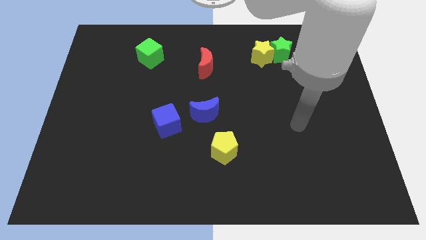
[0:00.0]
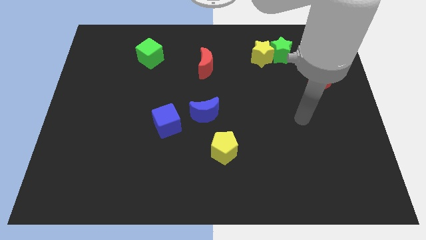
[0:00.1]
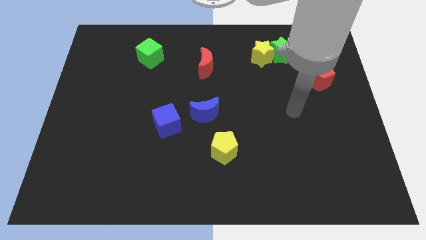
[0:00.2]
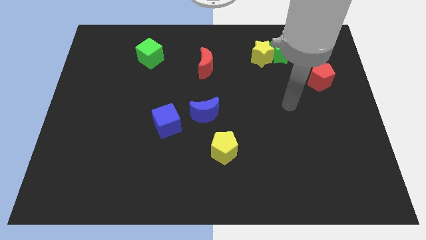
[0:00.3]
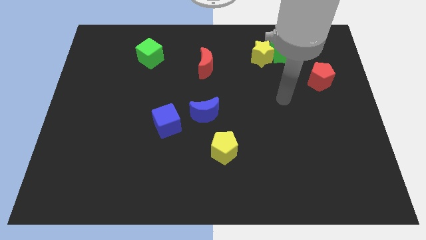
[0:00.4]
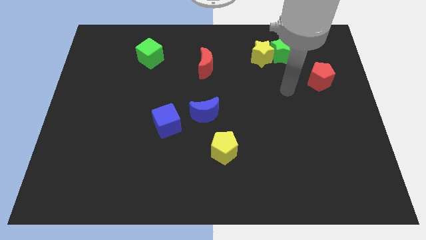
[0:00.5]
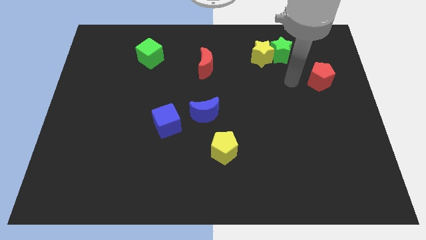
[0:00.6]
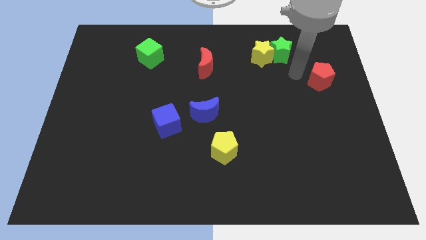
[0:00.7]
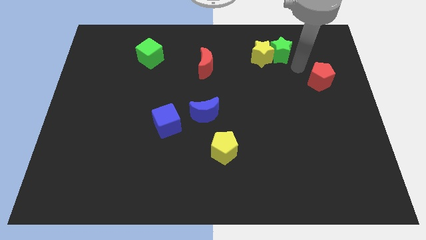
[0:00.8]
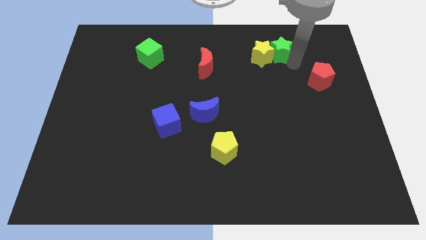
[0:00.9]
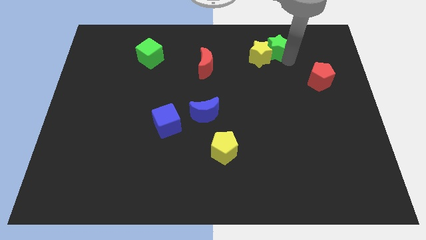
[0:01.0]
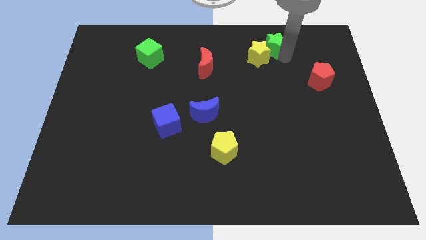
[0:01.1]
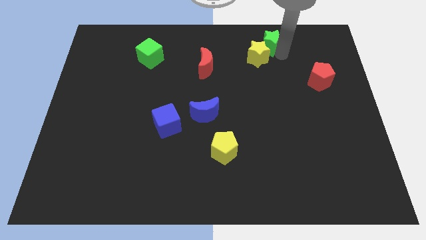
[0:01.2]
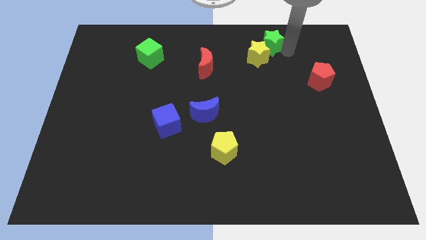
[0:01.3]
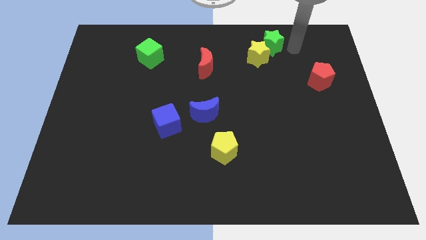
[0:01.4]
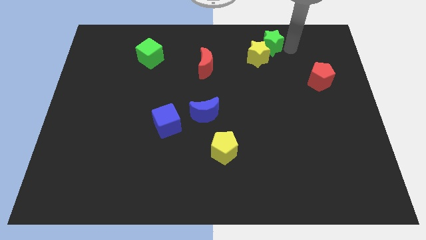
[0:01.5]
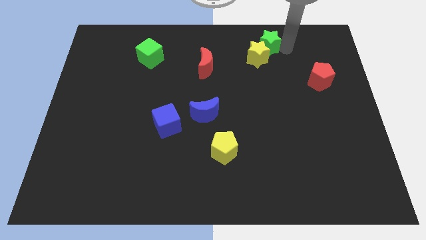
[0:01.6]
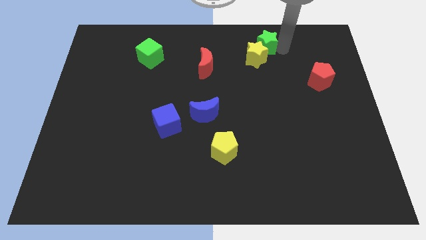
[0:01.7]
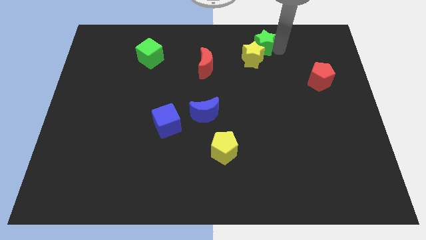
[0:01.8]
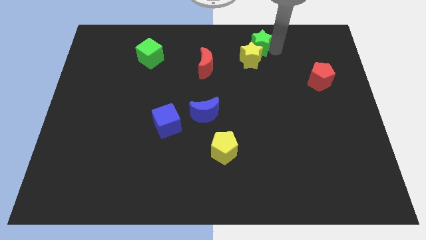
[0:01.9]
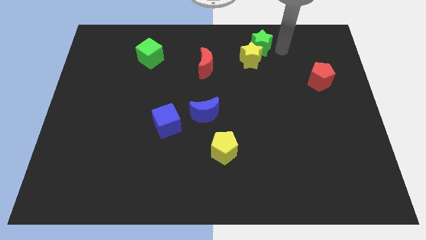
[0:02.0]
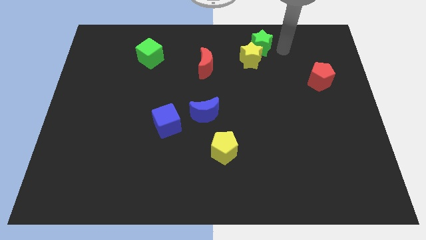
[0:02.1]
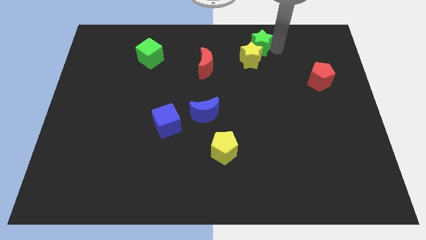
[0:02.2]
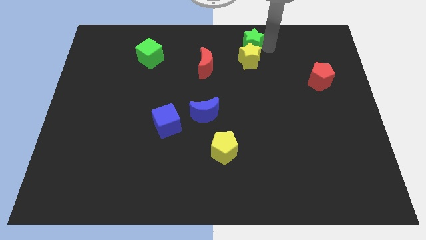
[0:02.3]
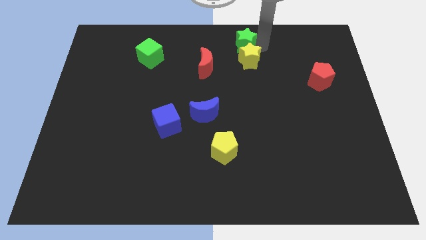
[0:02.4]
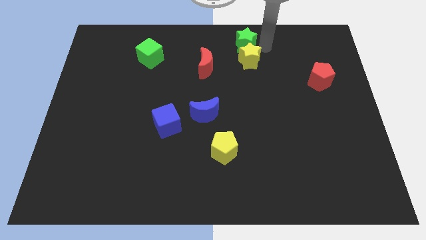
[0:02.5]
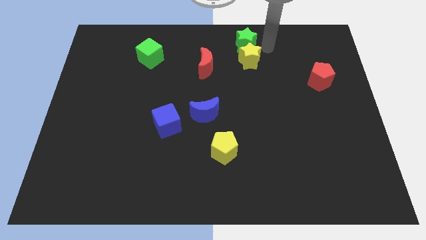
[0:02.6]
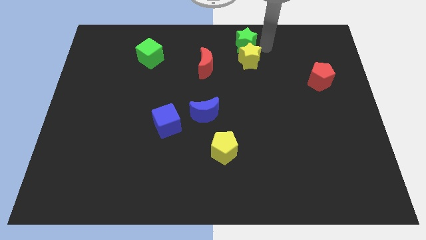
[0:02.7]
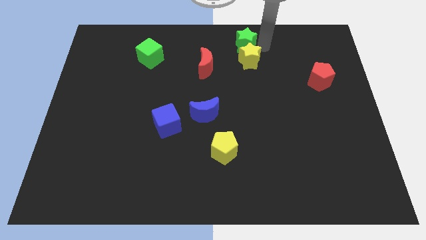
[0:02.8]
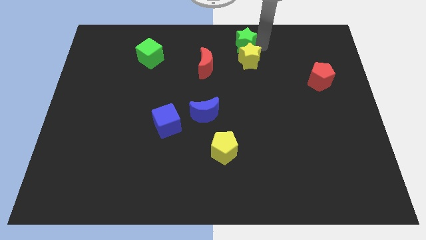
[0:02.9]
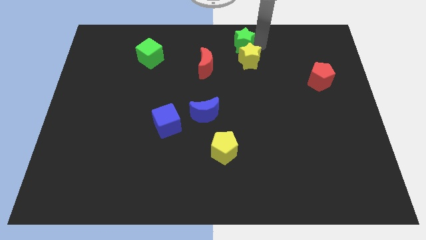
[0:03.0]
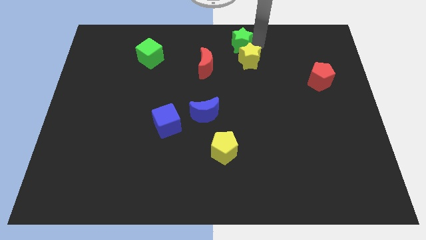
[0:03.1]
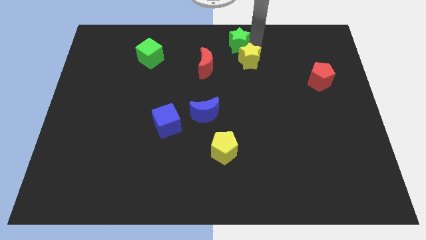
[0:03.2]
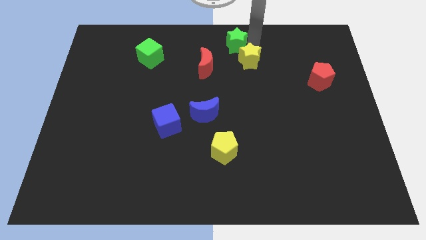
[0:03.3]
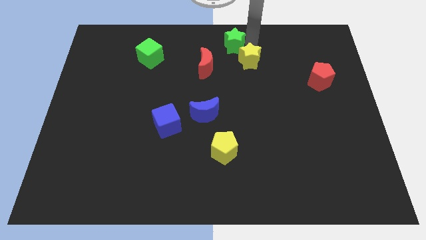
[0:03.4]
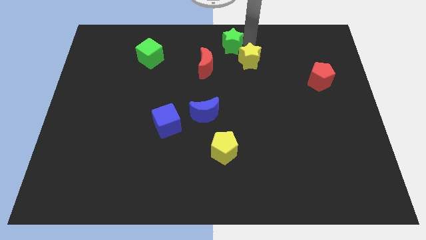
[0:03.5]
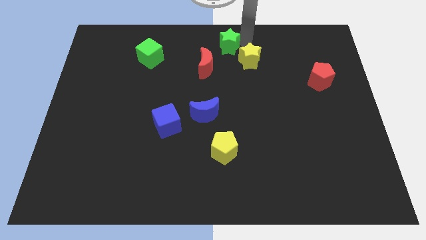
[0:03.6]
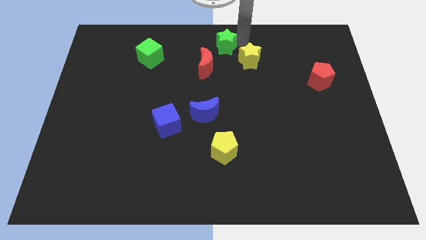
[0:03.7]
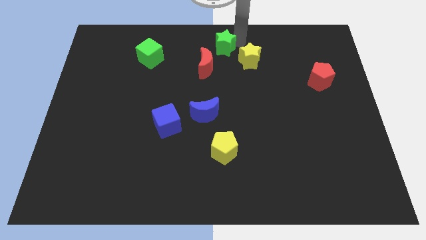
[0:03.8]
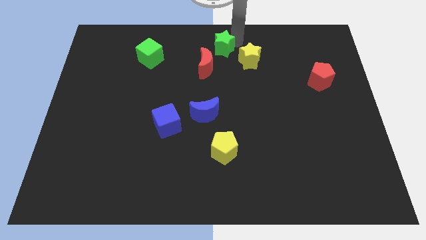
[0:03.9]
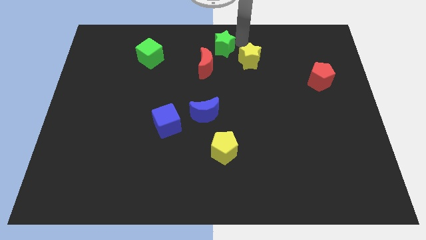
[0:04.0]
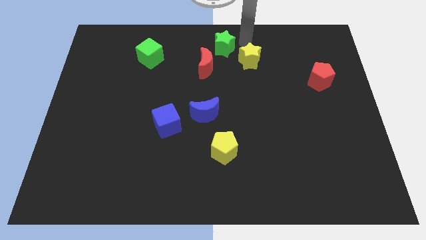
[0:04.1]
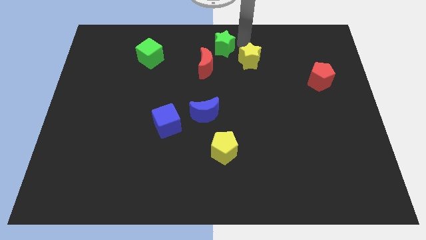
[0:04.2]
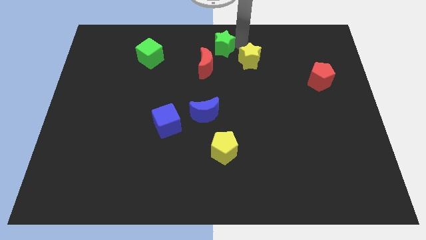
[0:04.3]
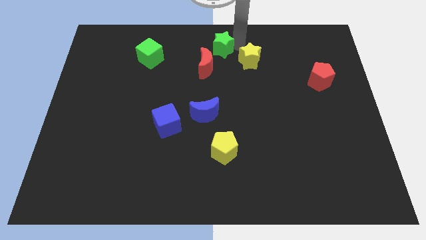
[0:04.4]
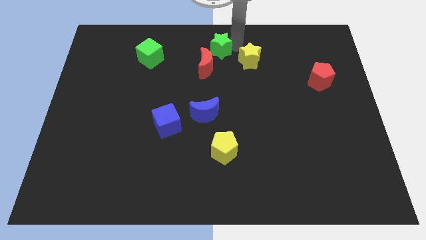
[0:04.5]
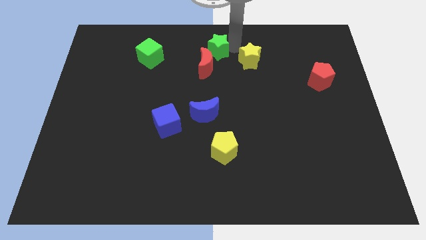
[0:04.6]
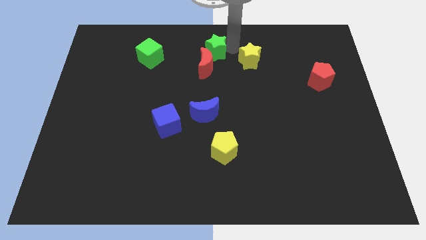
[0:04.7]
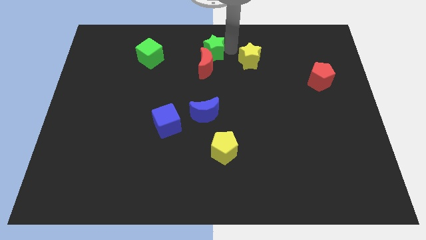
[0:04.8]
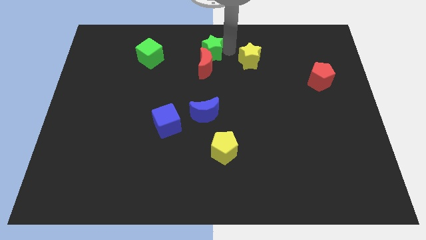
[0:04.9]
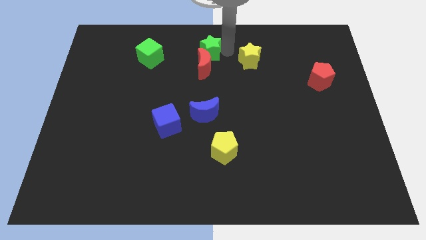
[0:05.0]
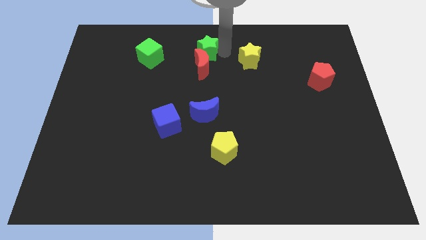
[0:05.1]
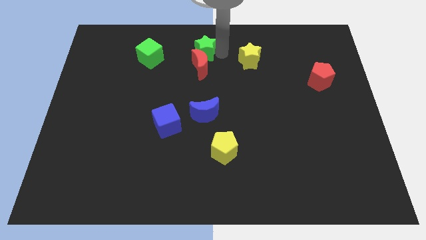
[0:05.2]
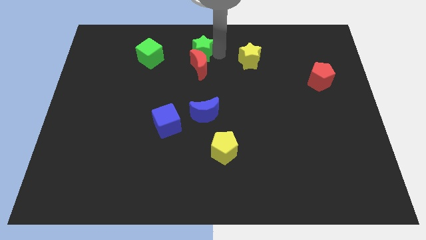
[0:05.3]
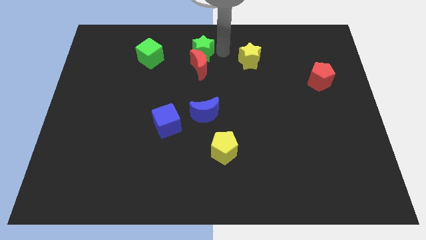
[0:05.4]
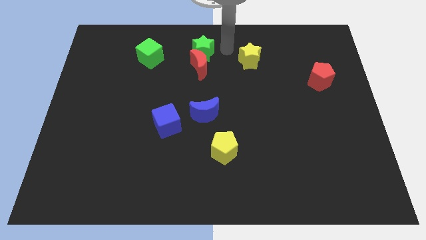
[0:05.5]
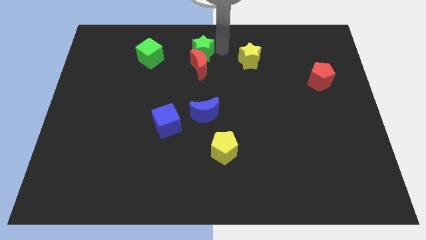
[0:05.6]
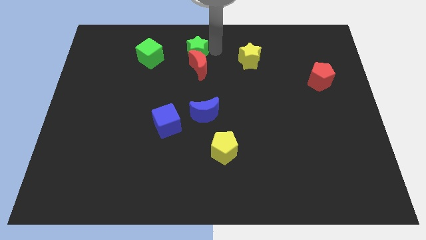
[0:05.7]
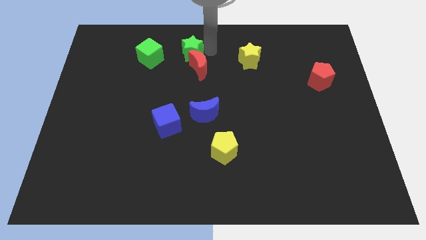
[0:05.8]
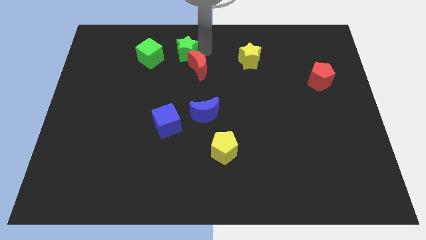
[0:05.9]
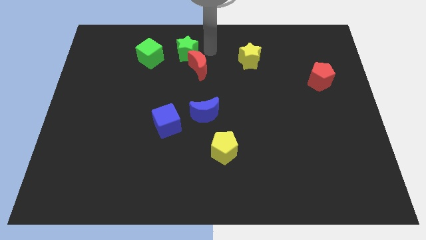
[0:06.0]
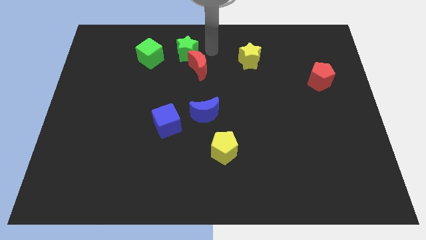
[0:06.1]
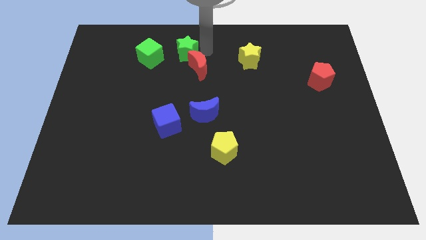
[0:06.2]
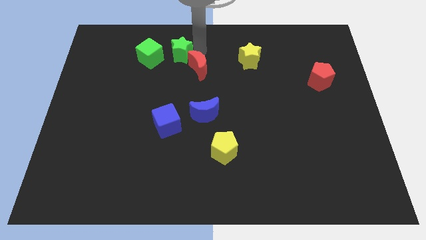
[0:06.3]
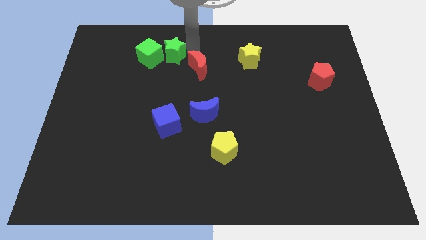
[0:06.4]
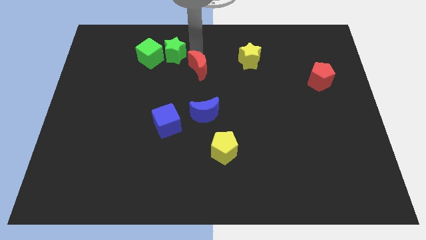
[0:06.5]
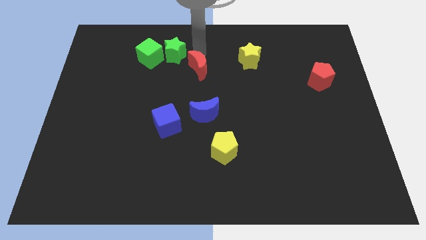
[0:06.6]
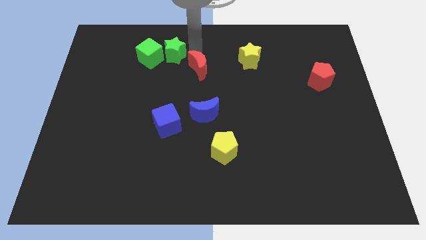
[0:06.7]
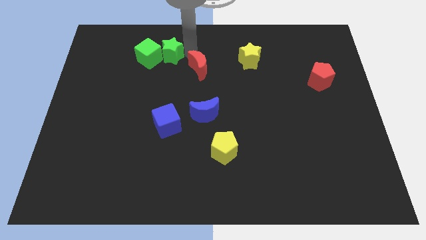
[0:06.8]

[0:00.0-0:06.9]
put the green star close to the green cube

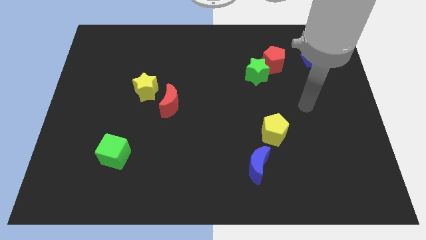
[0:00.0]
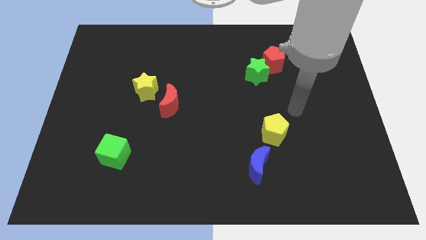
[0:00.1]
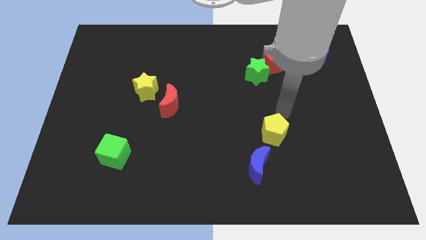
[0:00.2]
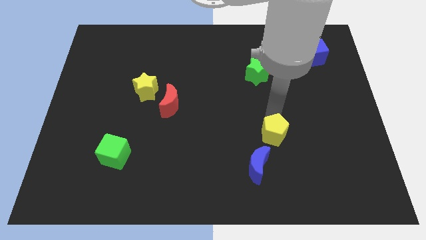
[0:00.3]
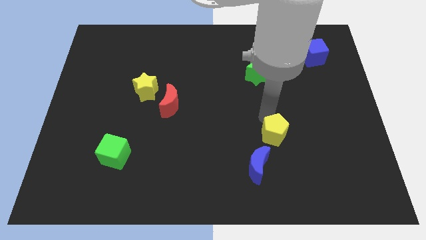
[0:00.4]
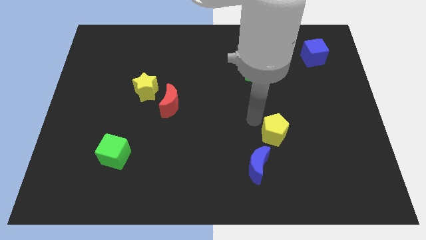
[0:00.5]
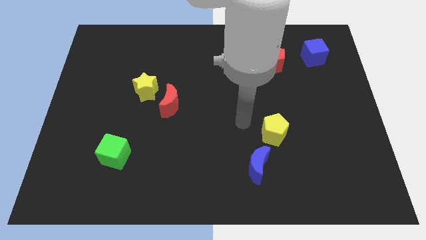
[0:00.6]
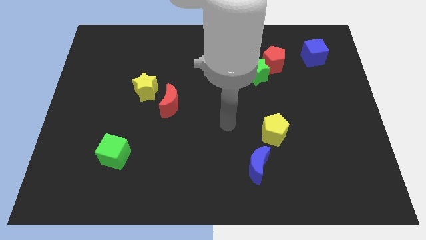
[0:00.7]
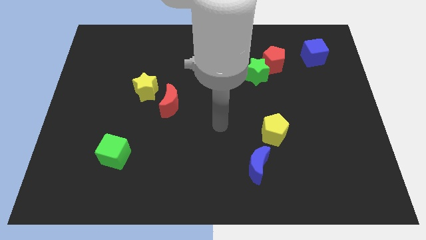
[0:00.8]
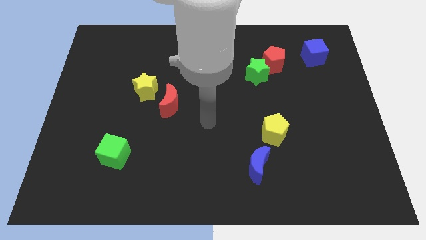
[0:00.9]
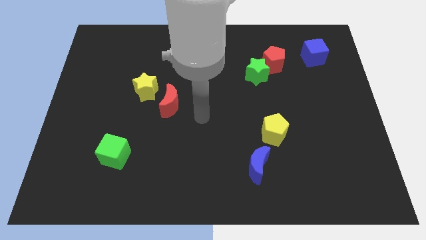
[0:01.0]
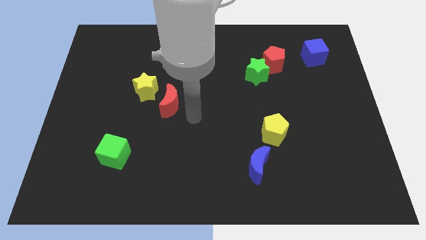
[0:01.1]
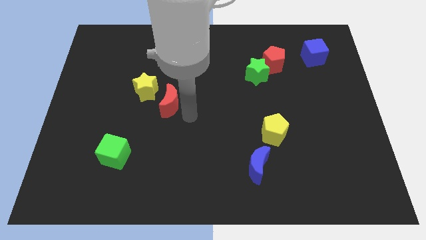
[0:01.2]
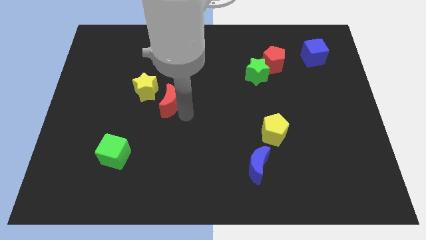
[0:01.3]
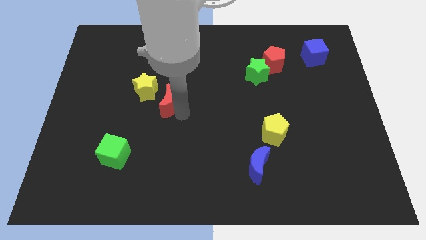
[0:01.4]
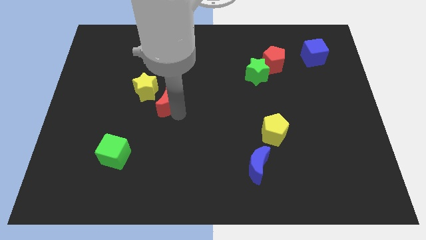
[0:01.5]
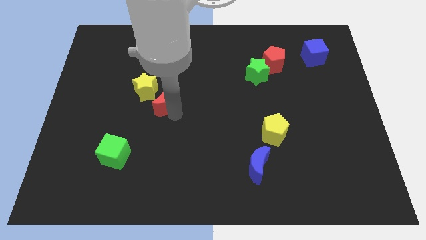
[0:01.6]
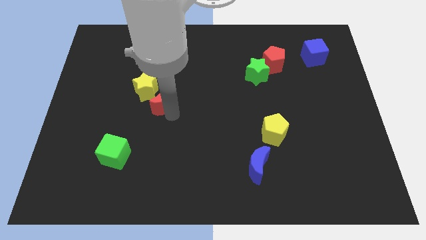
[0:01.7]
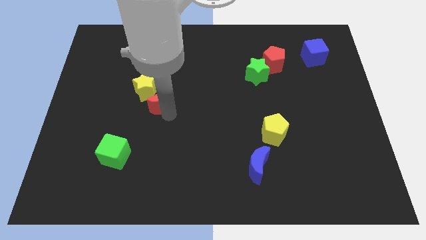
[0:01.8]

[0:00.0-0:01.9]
move the red moon next to the yellow star
